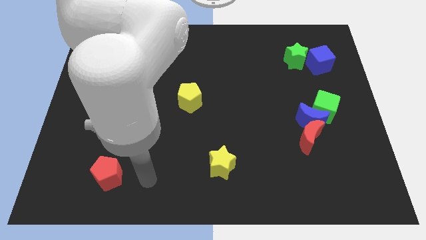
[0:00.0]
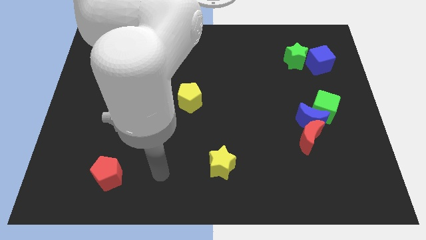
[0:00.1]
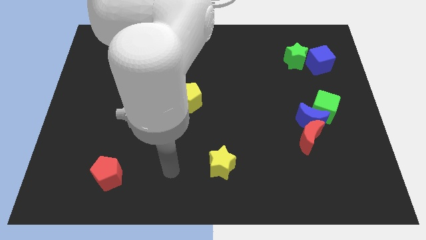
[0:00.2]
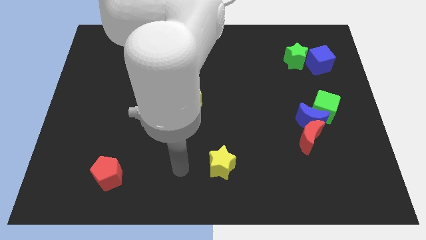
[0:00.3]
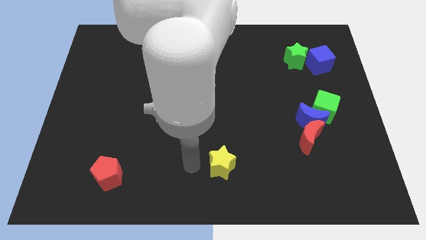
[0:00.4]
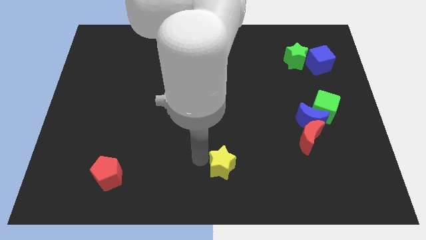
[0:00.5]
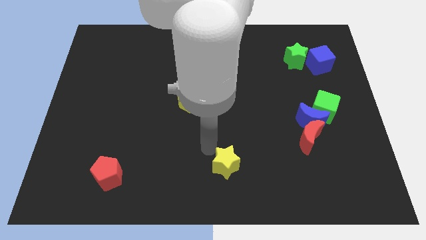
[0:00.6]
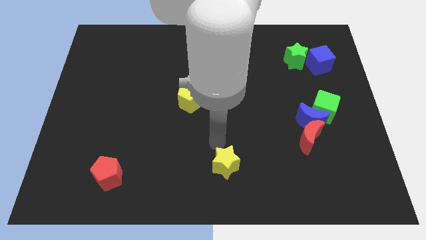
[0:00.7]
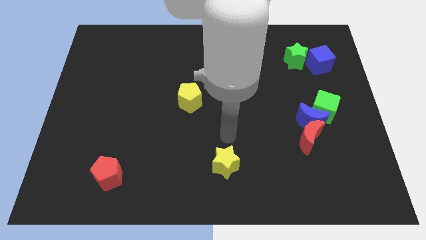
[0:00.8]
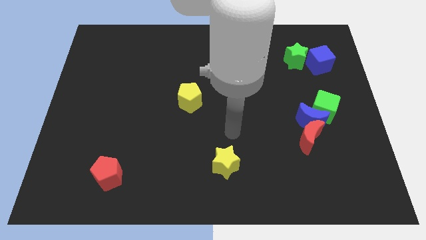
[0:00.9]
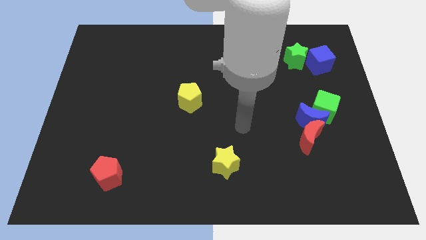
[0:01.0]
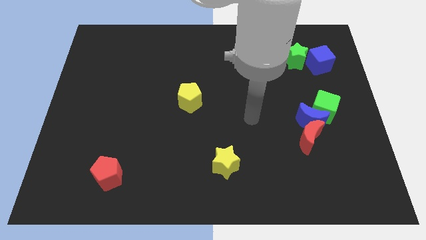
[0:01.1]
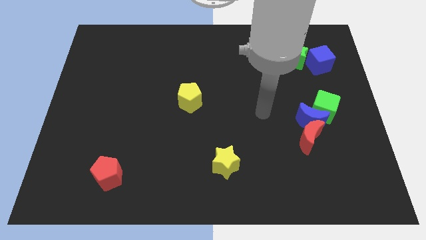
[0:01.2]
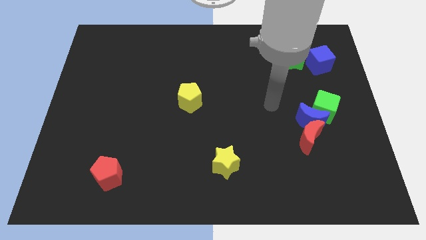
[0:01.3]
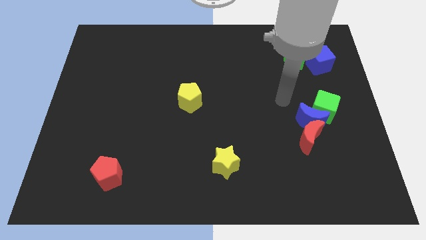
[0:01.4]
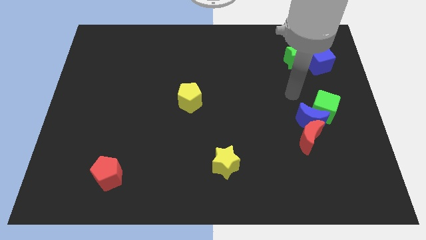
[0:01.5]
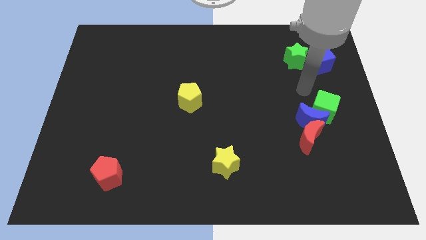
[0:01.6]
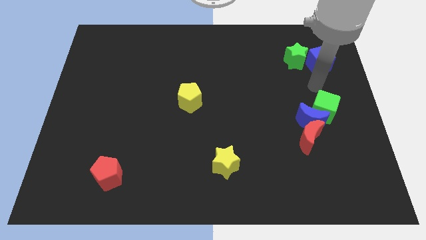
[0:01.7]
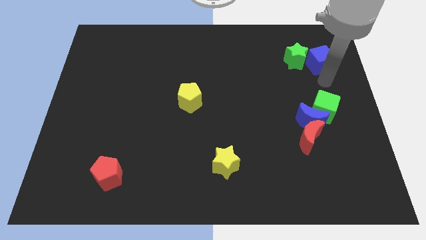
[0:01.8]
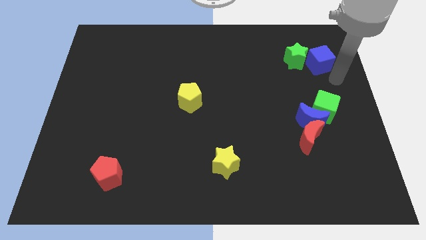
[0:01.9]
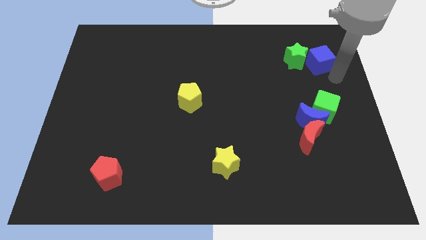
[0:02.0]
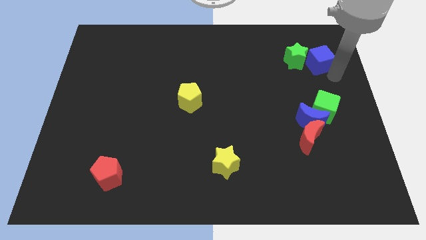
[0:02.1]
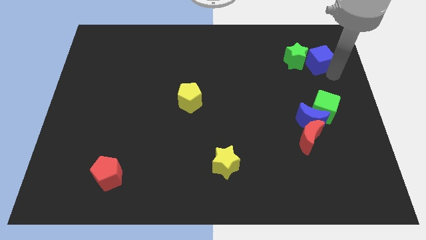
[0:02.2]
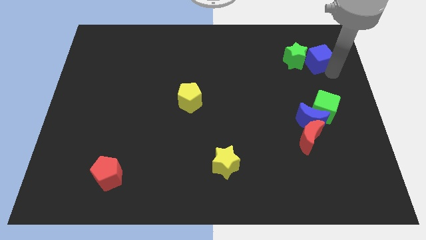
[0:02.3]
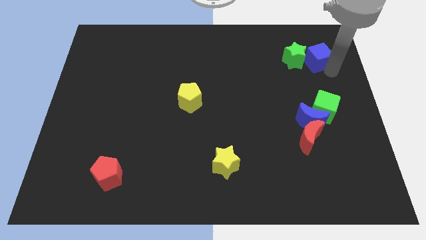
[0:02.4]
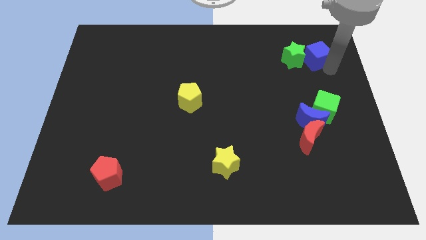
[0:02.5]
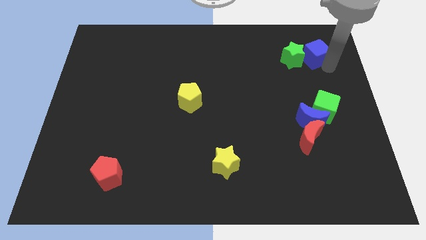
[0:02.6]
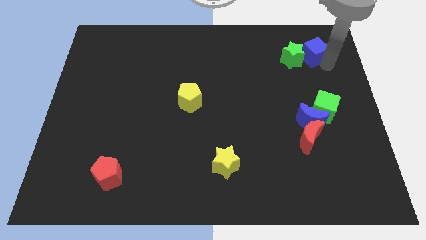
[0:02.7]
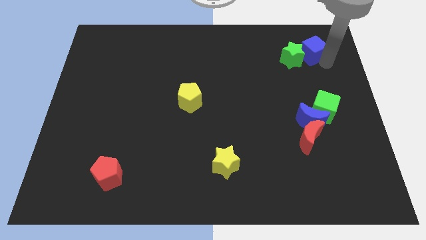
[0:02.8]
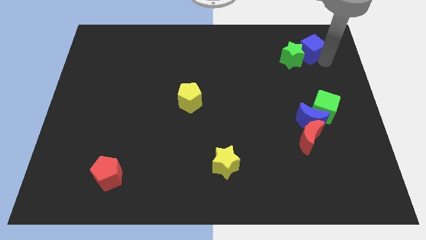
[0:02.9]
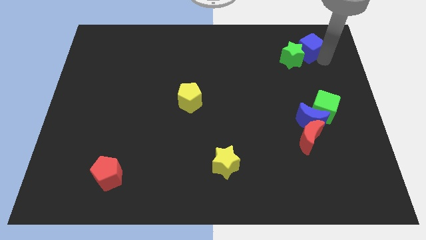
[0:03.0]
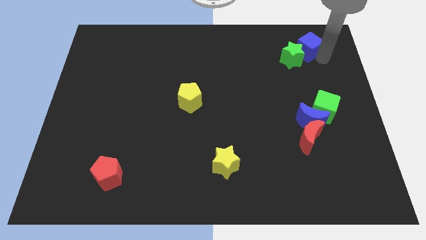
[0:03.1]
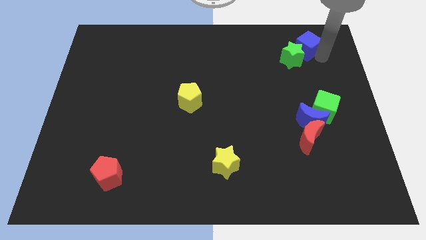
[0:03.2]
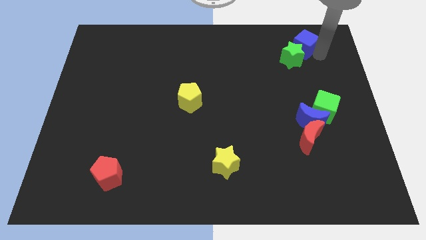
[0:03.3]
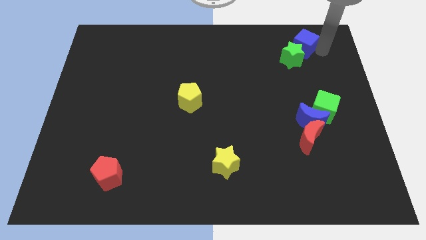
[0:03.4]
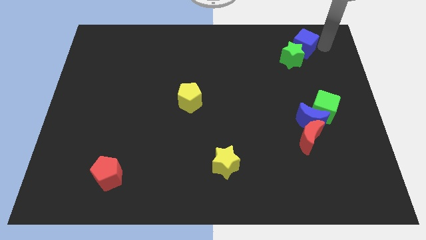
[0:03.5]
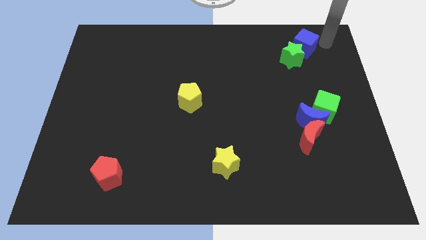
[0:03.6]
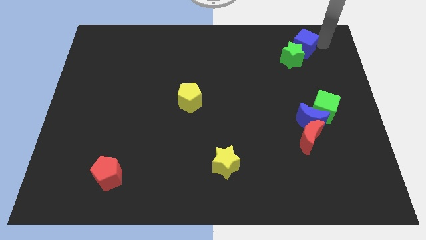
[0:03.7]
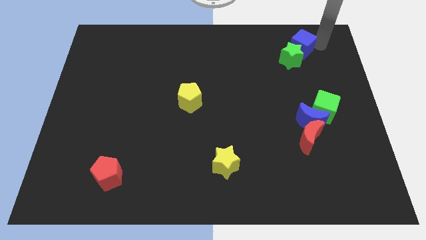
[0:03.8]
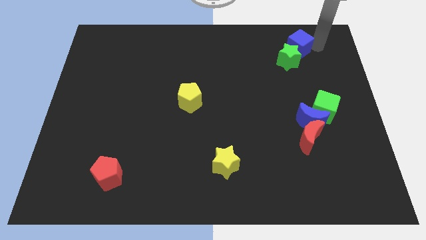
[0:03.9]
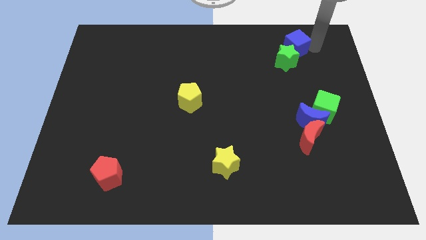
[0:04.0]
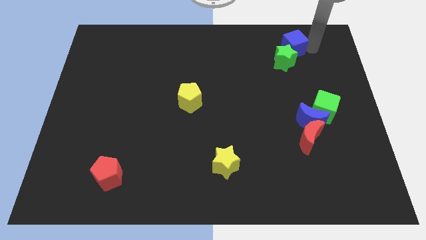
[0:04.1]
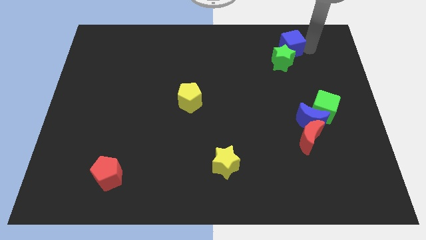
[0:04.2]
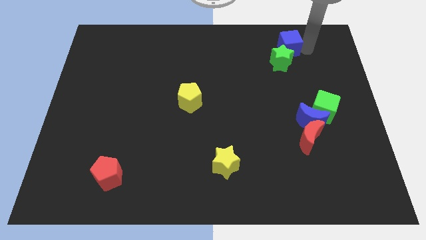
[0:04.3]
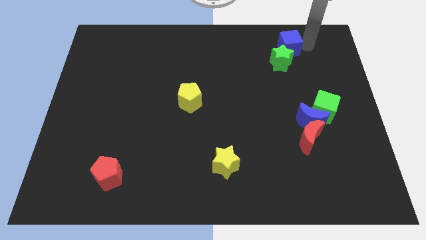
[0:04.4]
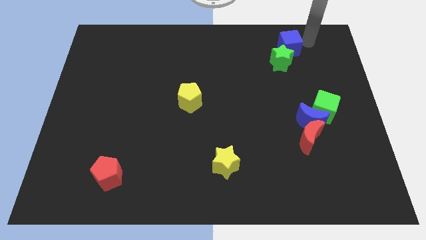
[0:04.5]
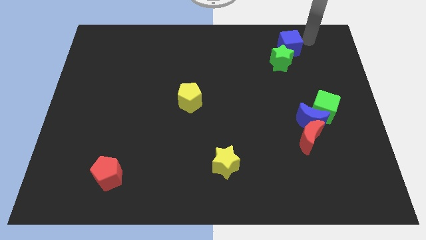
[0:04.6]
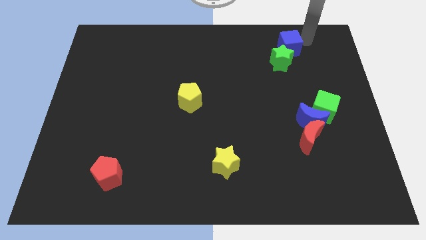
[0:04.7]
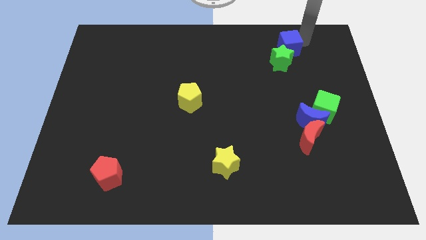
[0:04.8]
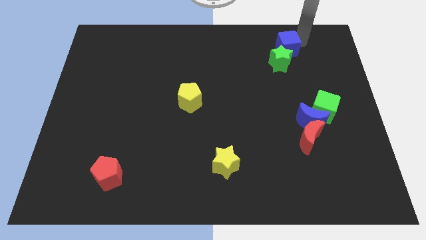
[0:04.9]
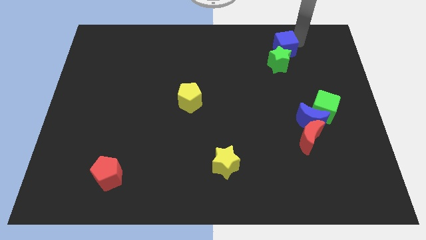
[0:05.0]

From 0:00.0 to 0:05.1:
move the blue cube left a bit

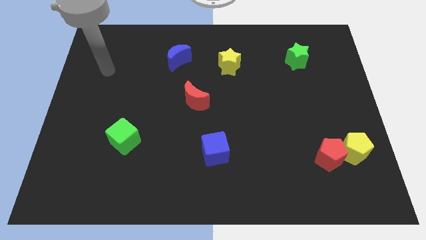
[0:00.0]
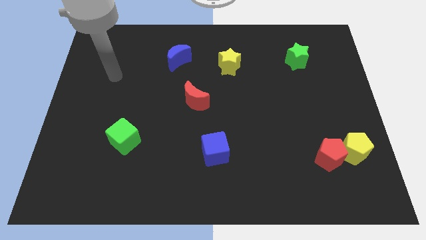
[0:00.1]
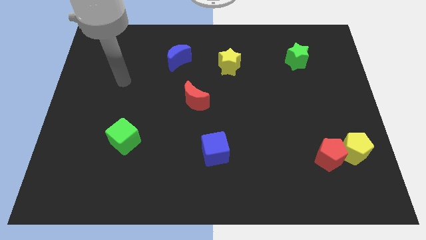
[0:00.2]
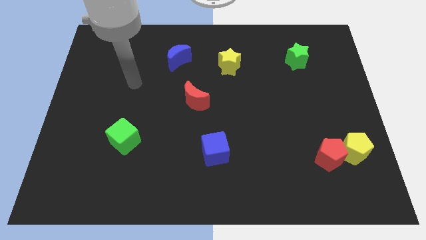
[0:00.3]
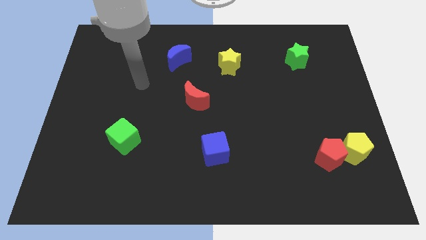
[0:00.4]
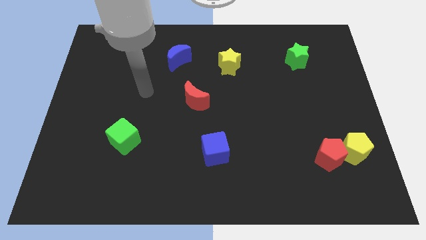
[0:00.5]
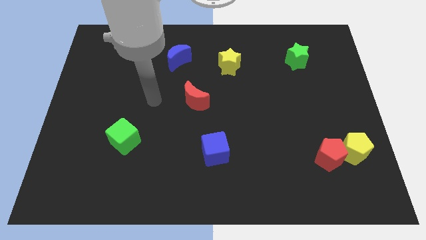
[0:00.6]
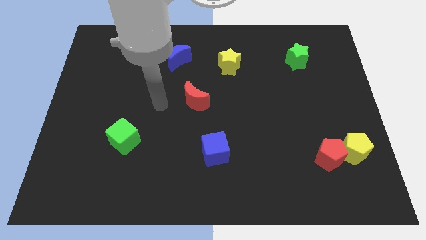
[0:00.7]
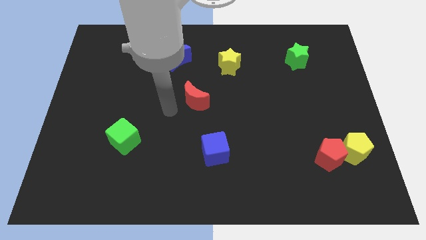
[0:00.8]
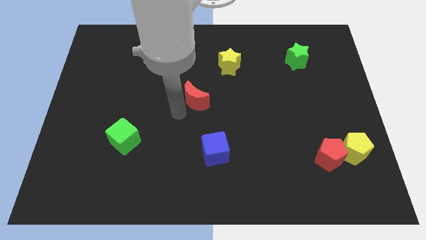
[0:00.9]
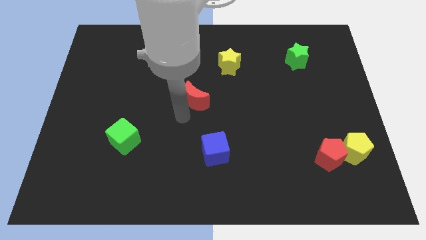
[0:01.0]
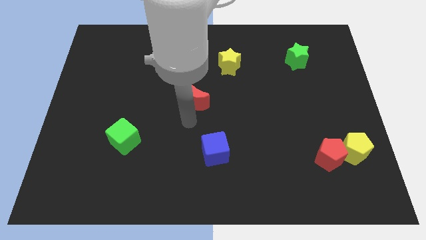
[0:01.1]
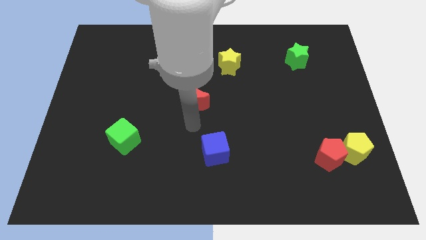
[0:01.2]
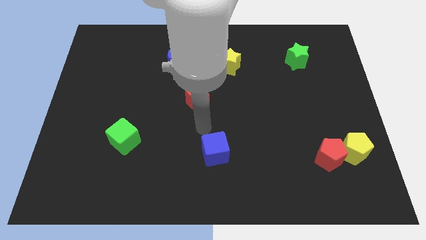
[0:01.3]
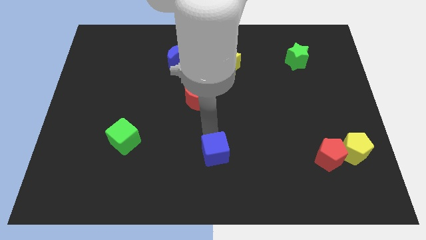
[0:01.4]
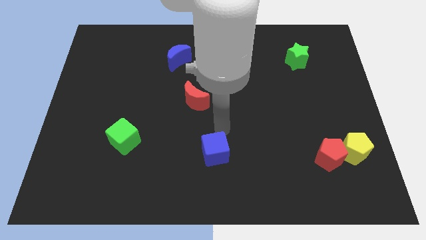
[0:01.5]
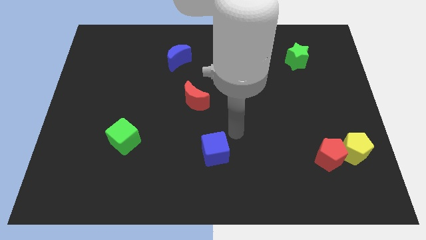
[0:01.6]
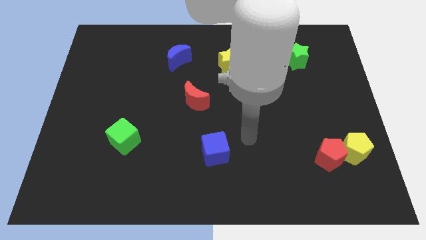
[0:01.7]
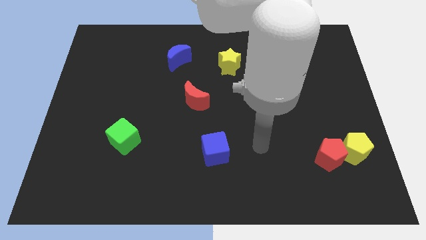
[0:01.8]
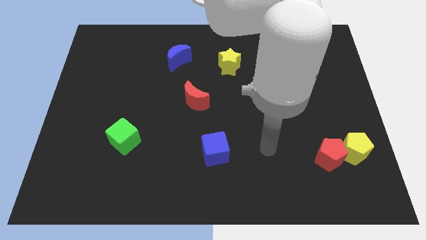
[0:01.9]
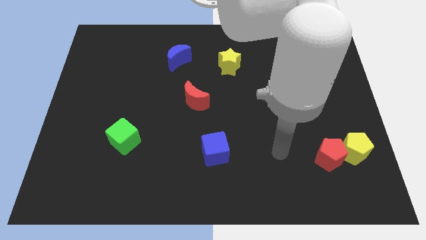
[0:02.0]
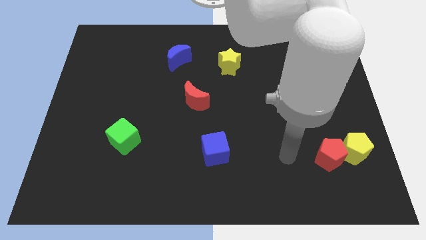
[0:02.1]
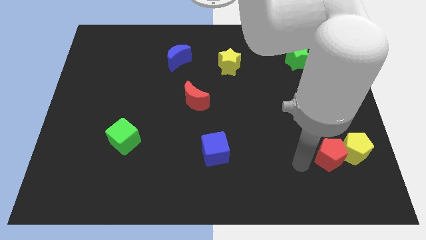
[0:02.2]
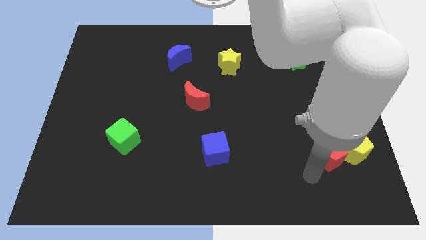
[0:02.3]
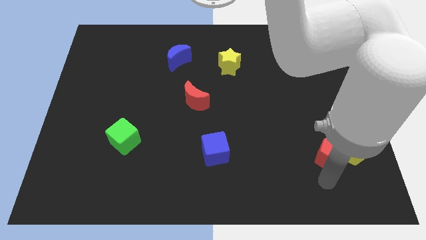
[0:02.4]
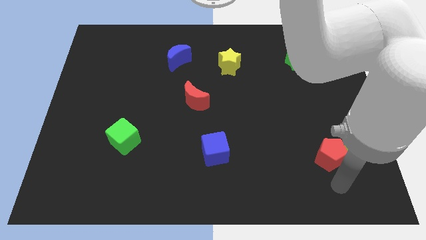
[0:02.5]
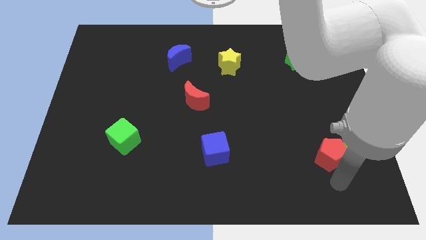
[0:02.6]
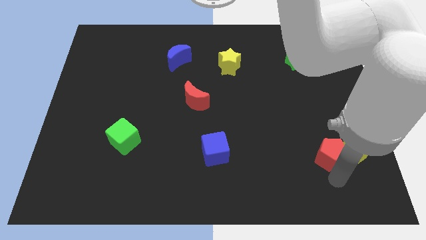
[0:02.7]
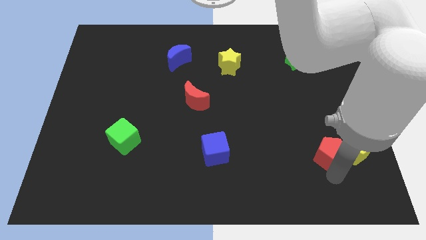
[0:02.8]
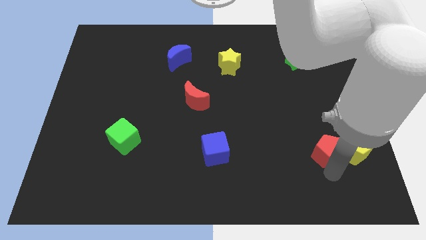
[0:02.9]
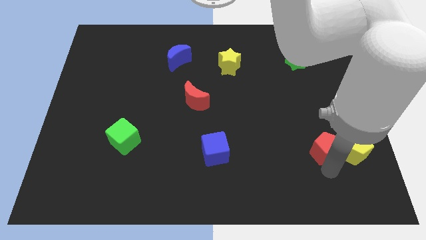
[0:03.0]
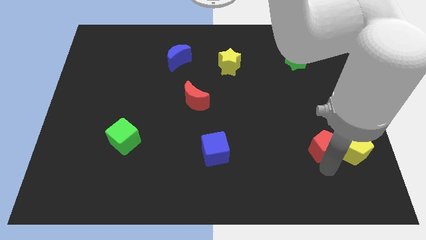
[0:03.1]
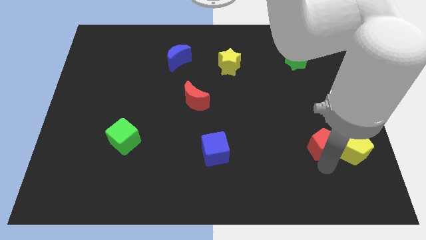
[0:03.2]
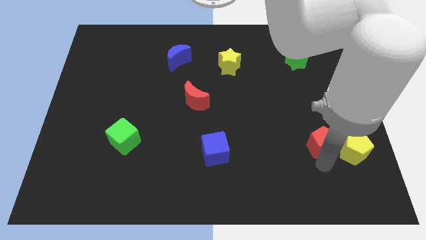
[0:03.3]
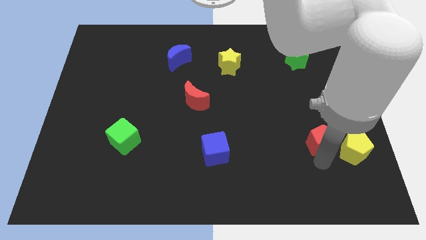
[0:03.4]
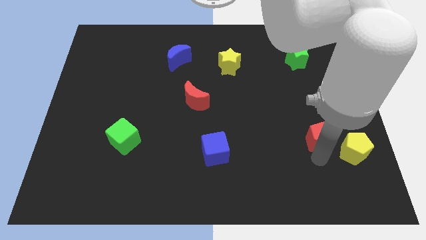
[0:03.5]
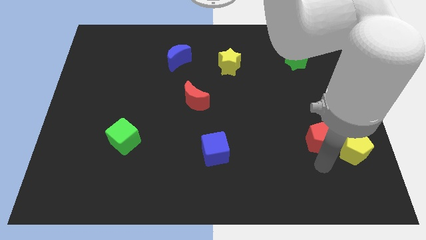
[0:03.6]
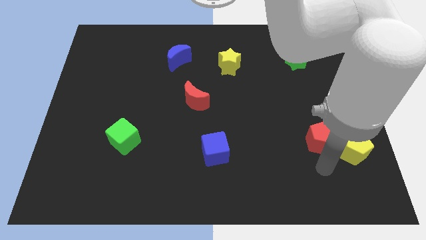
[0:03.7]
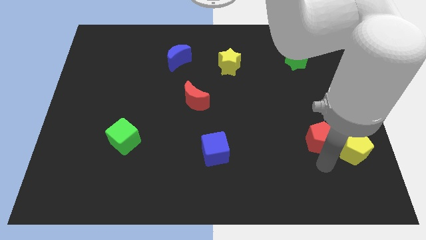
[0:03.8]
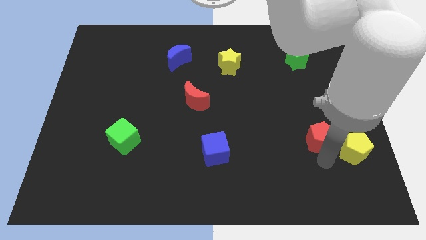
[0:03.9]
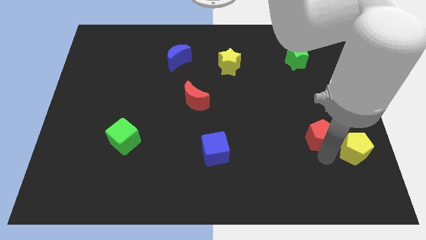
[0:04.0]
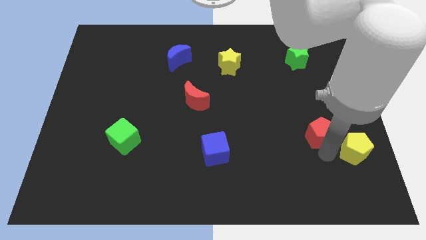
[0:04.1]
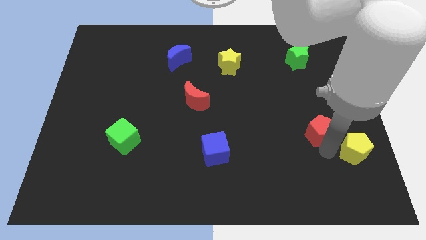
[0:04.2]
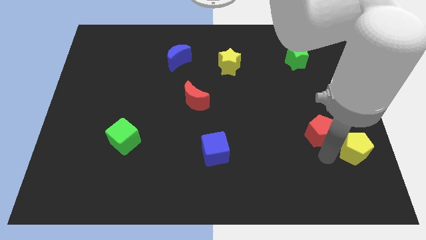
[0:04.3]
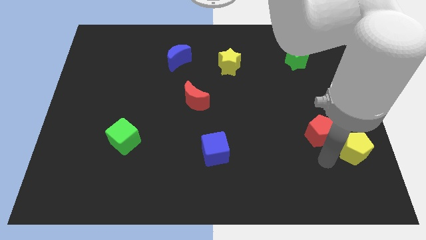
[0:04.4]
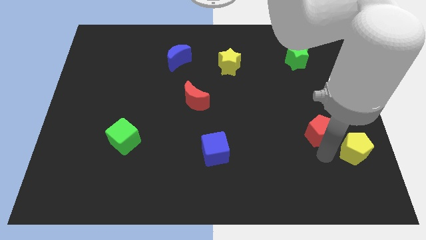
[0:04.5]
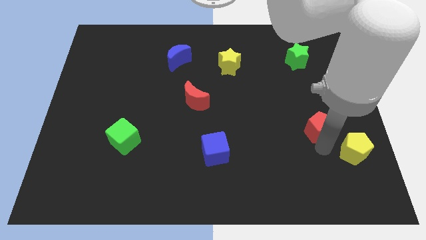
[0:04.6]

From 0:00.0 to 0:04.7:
slightly move the red pentagon up
